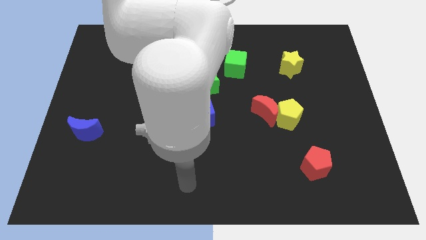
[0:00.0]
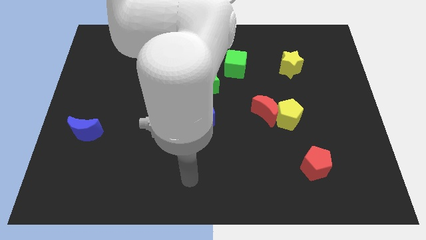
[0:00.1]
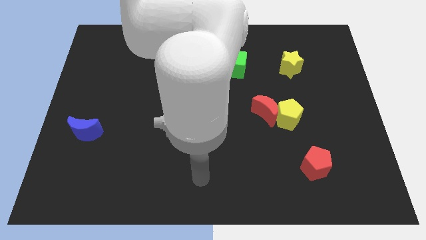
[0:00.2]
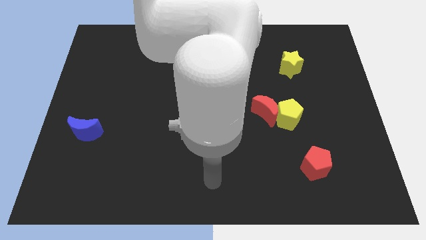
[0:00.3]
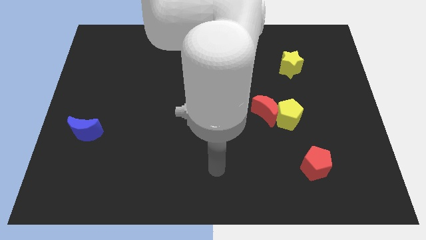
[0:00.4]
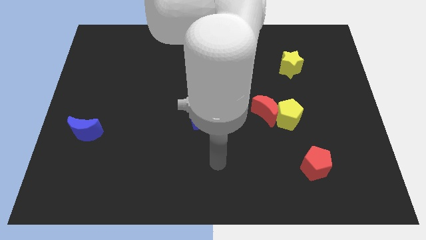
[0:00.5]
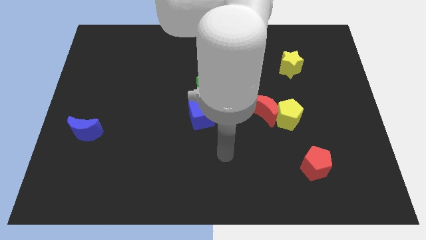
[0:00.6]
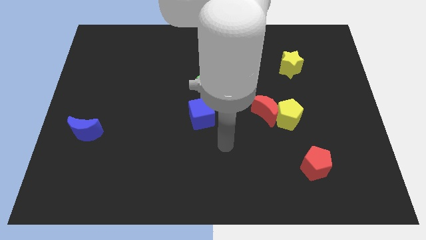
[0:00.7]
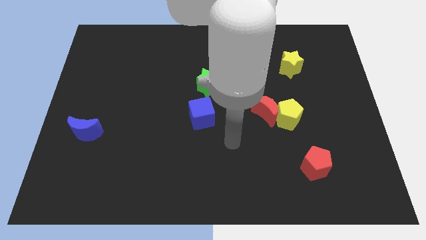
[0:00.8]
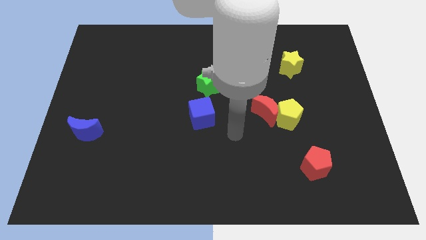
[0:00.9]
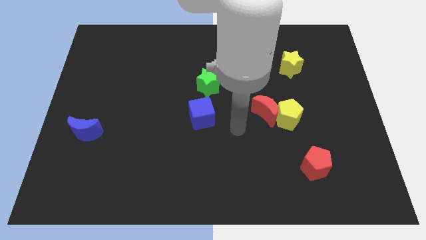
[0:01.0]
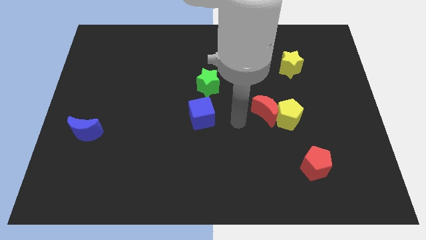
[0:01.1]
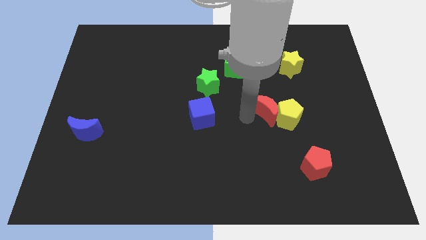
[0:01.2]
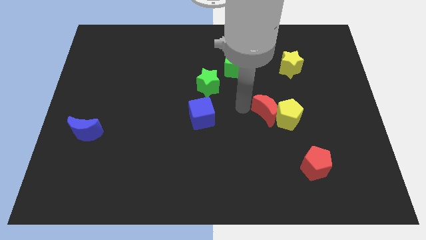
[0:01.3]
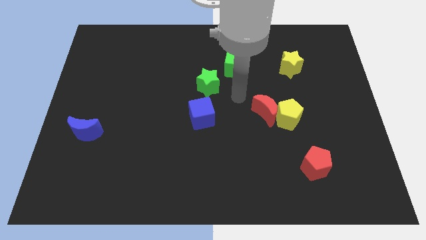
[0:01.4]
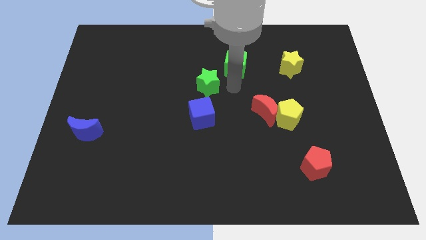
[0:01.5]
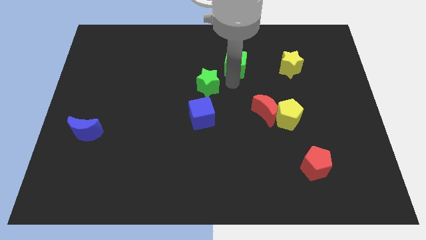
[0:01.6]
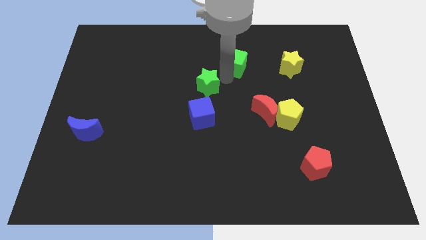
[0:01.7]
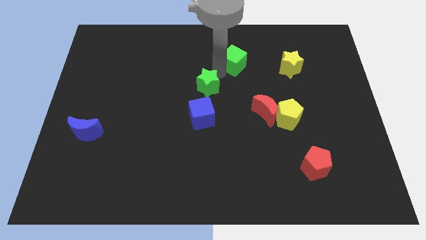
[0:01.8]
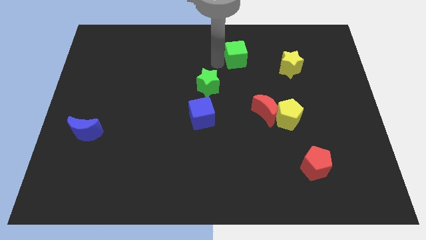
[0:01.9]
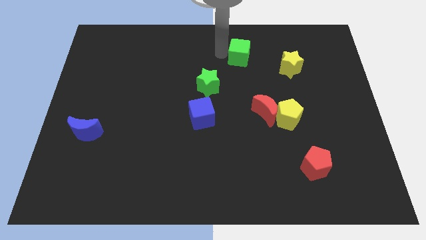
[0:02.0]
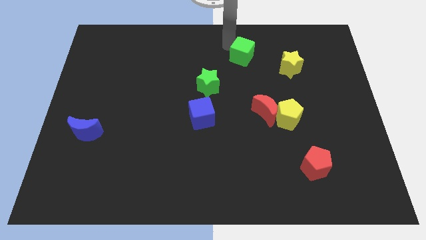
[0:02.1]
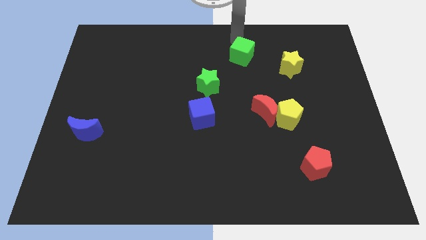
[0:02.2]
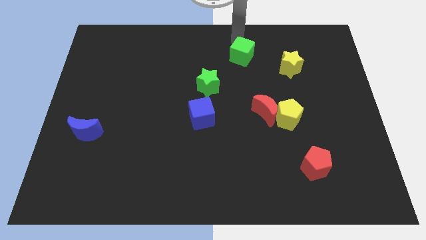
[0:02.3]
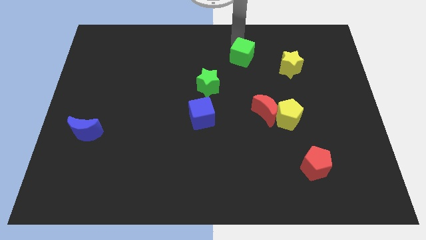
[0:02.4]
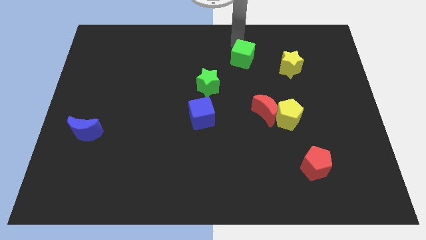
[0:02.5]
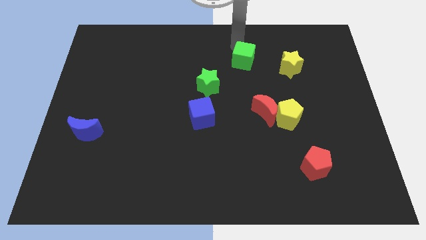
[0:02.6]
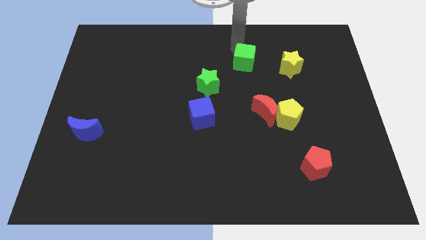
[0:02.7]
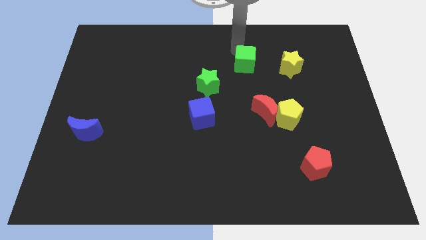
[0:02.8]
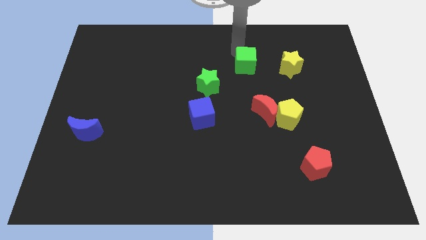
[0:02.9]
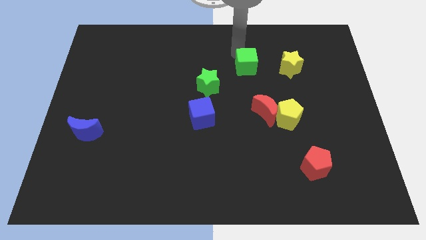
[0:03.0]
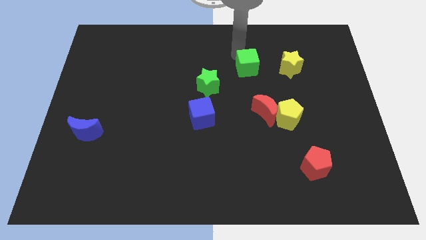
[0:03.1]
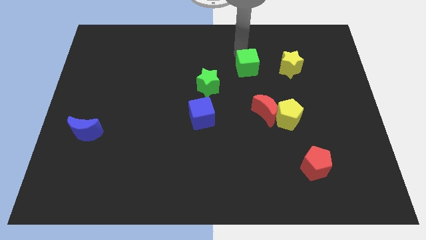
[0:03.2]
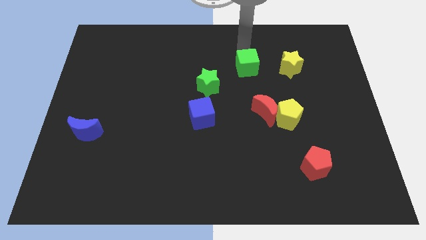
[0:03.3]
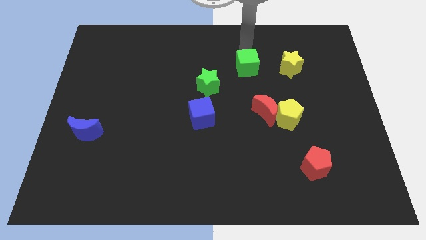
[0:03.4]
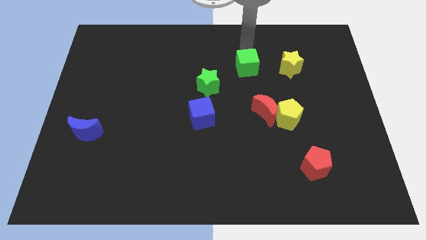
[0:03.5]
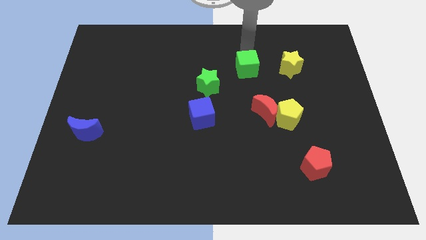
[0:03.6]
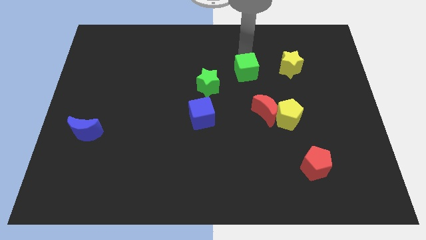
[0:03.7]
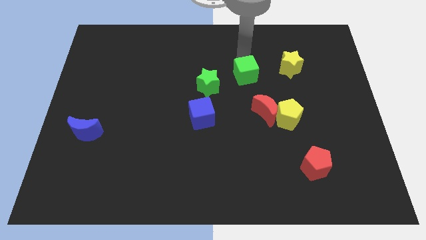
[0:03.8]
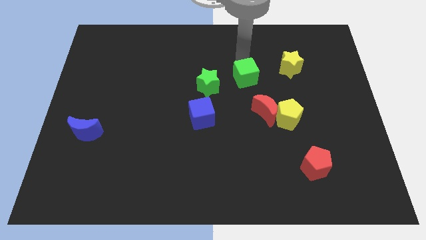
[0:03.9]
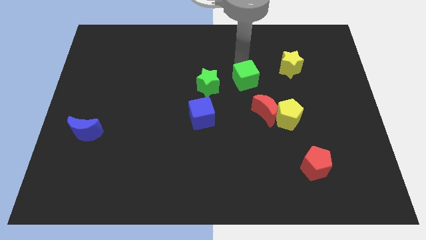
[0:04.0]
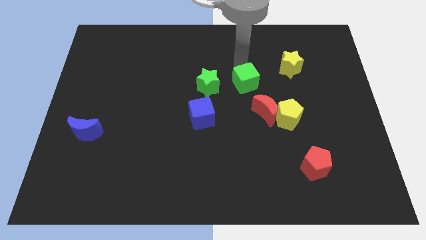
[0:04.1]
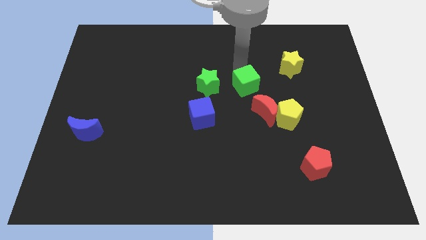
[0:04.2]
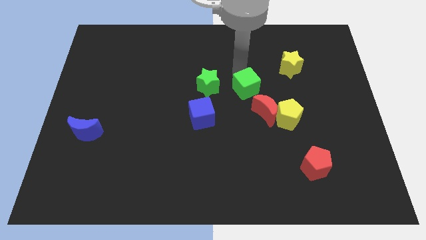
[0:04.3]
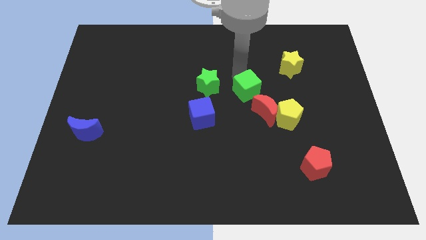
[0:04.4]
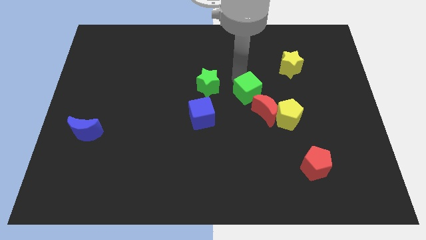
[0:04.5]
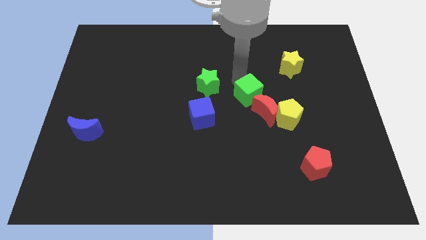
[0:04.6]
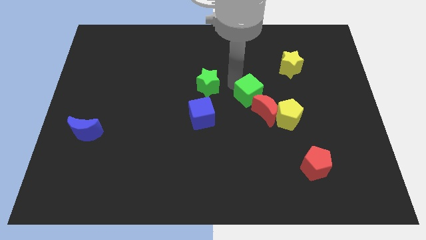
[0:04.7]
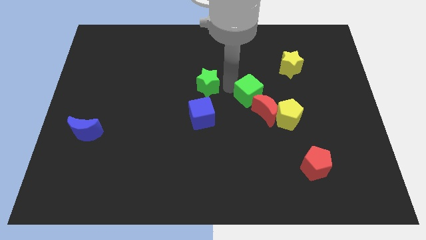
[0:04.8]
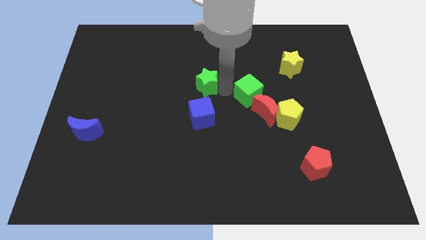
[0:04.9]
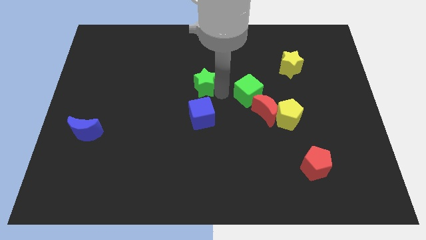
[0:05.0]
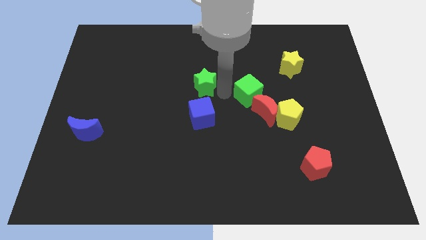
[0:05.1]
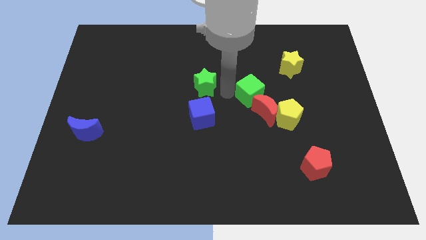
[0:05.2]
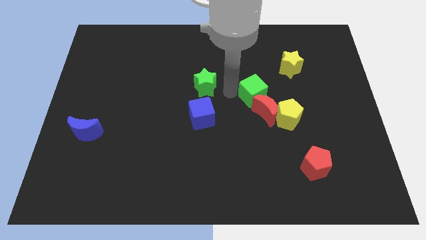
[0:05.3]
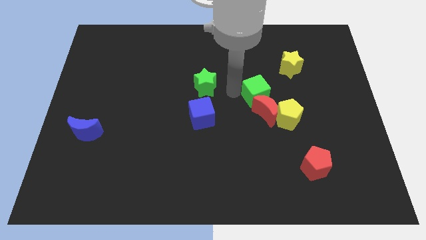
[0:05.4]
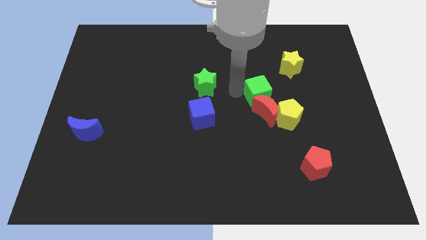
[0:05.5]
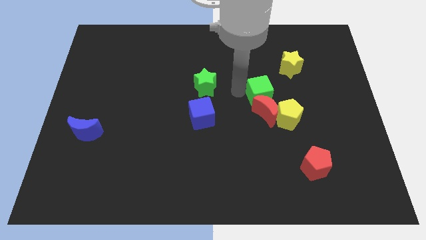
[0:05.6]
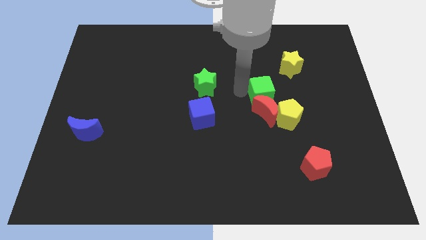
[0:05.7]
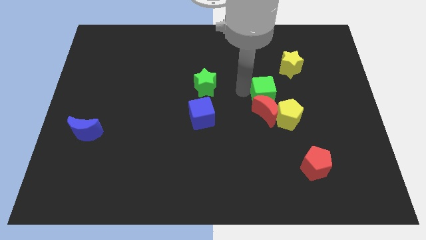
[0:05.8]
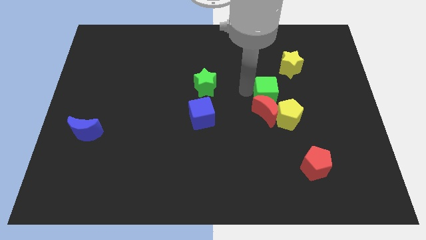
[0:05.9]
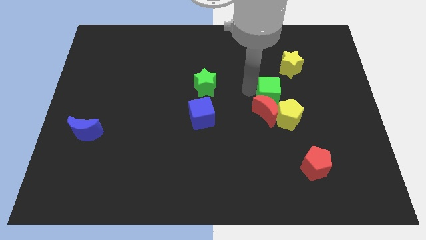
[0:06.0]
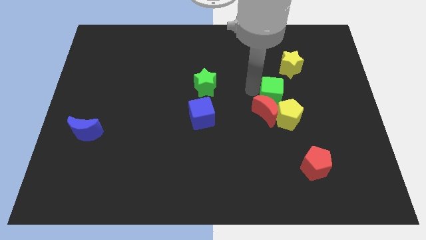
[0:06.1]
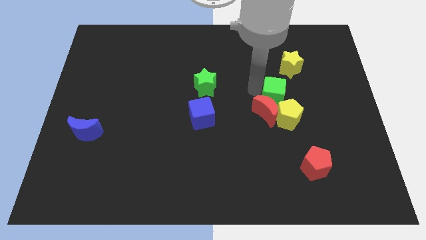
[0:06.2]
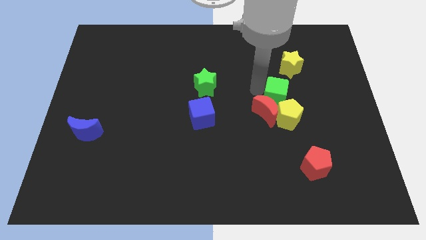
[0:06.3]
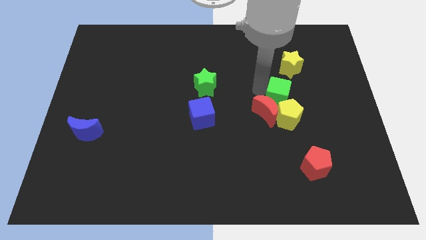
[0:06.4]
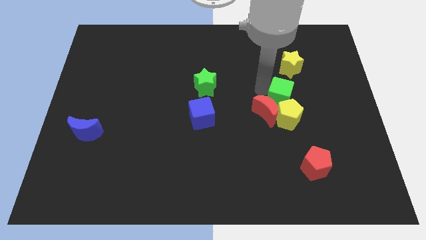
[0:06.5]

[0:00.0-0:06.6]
push the green cube next to the yellow pentagon
